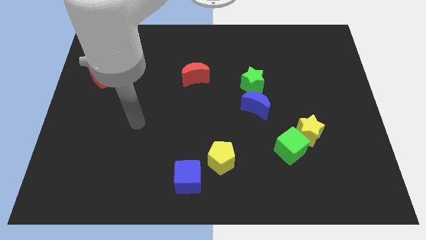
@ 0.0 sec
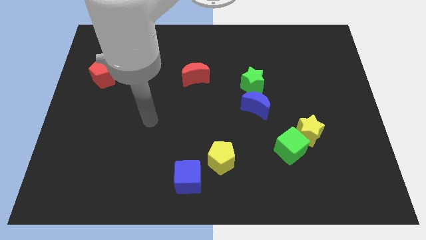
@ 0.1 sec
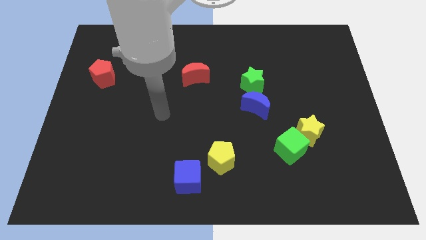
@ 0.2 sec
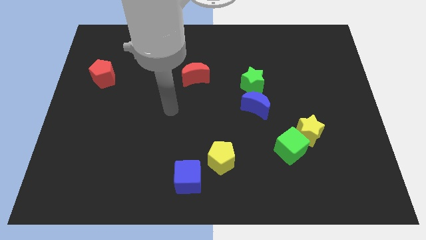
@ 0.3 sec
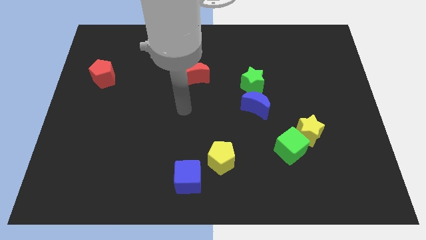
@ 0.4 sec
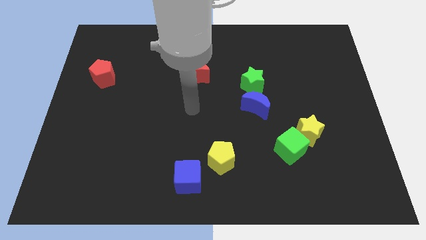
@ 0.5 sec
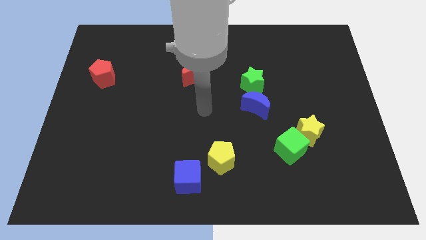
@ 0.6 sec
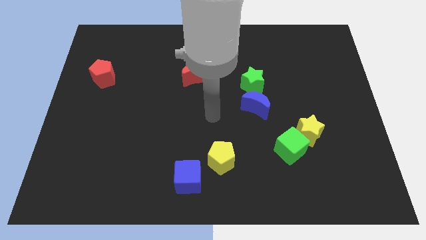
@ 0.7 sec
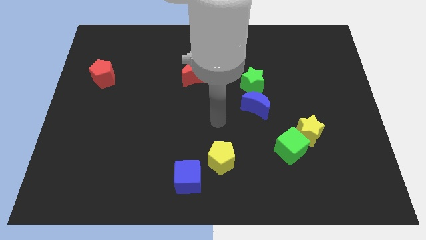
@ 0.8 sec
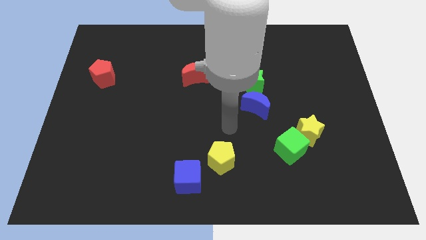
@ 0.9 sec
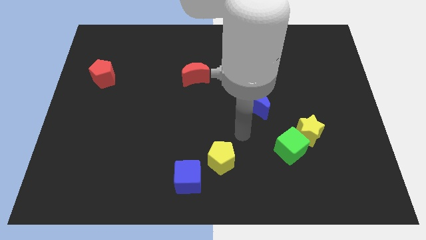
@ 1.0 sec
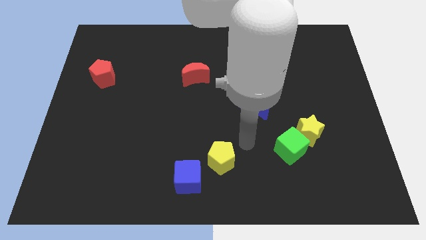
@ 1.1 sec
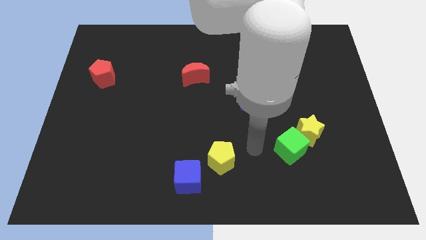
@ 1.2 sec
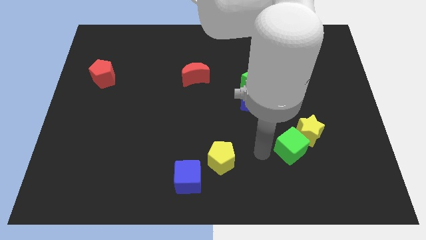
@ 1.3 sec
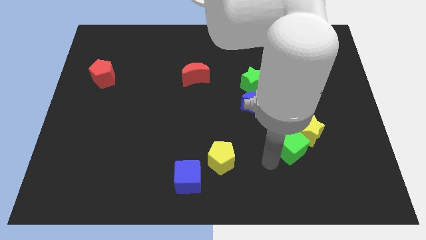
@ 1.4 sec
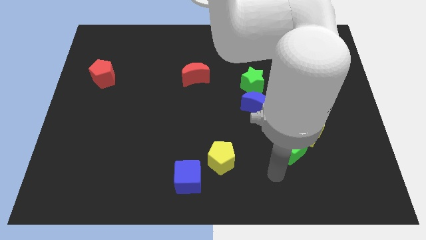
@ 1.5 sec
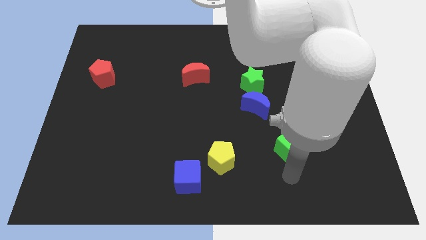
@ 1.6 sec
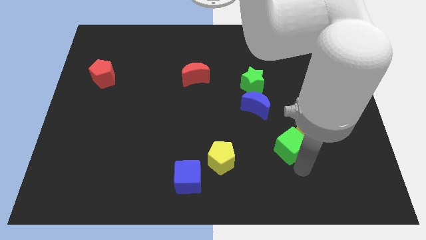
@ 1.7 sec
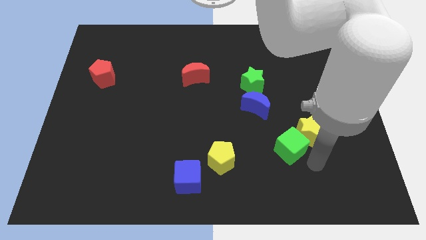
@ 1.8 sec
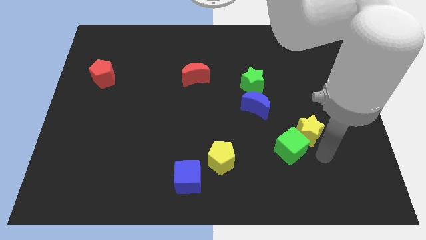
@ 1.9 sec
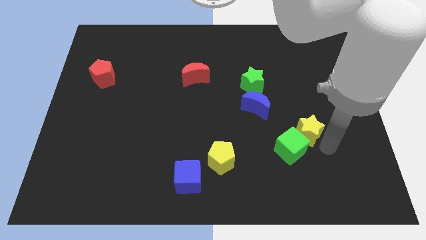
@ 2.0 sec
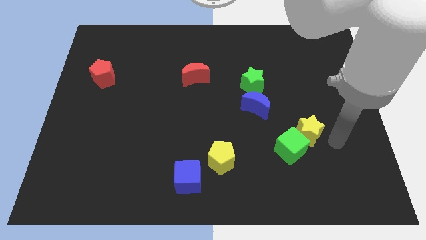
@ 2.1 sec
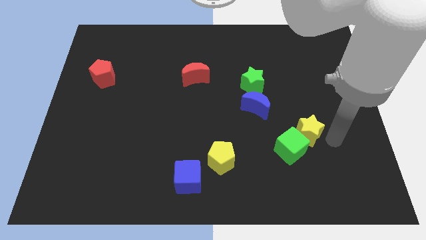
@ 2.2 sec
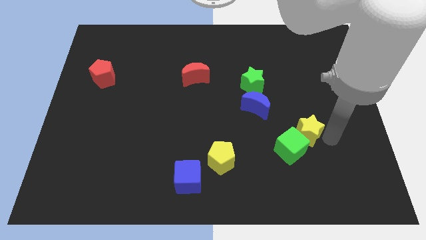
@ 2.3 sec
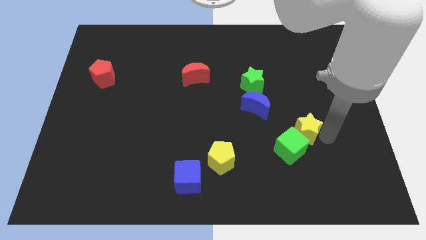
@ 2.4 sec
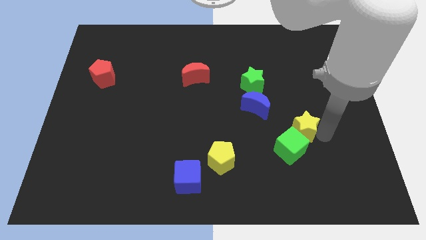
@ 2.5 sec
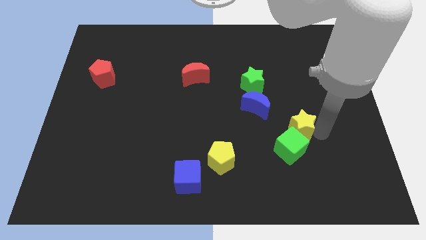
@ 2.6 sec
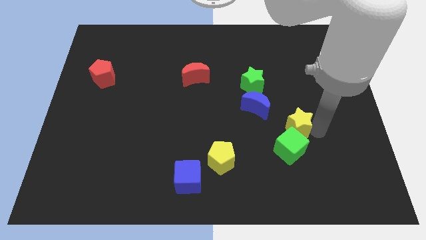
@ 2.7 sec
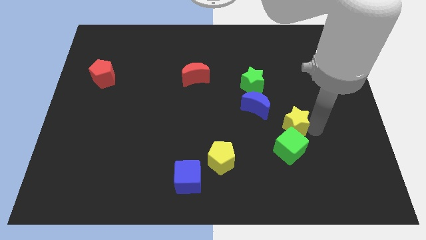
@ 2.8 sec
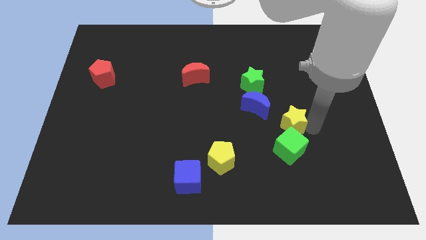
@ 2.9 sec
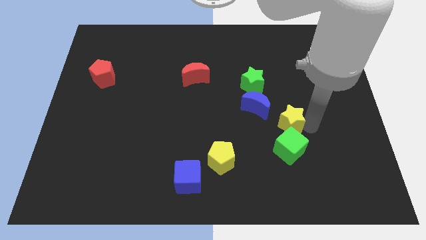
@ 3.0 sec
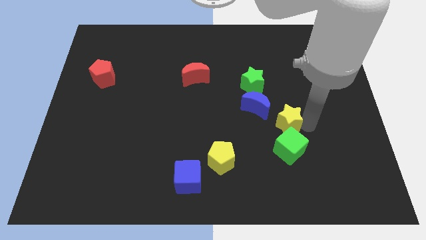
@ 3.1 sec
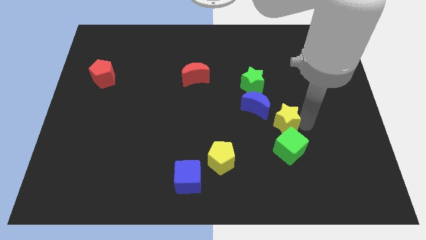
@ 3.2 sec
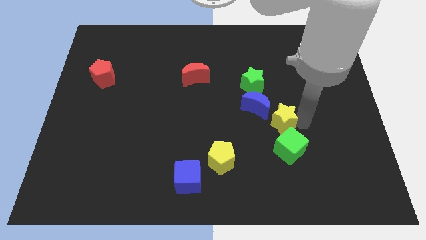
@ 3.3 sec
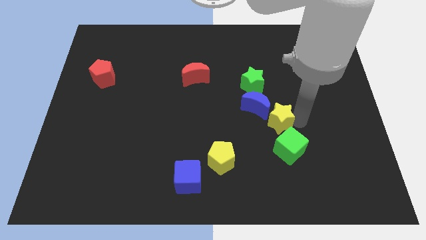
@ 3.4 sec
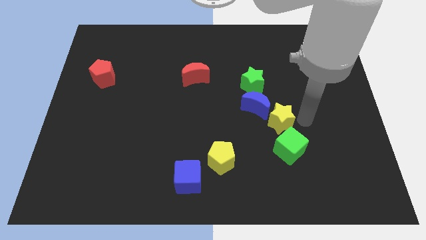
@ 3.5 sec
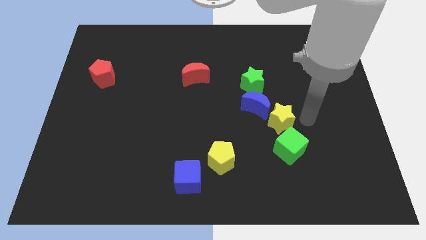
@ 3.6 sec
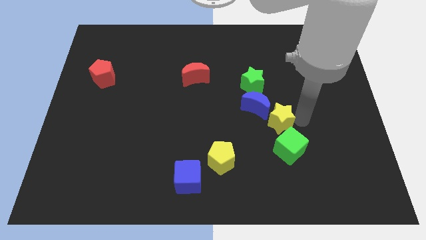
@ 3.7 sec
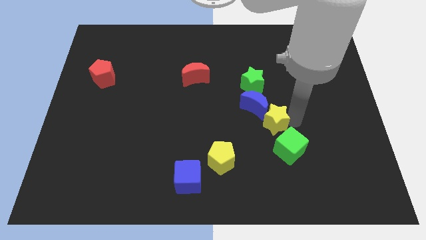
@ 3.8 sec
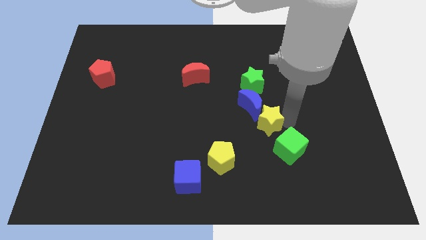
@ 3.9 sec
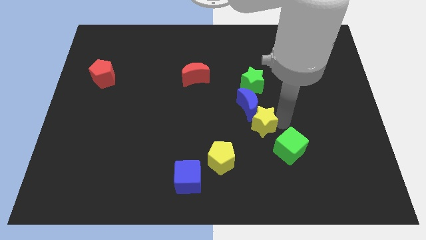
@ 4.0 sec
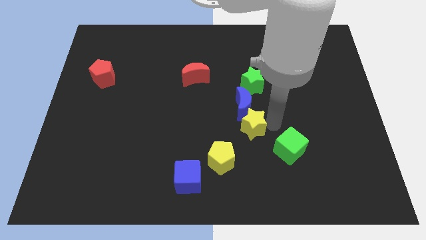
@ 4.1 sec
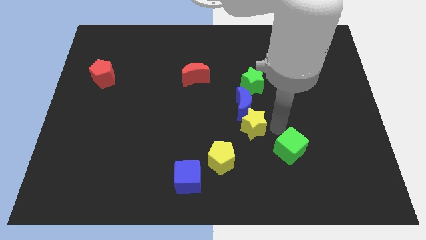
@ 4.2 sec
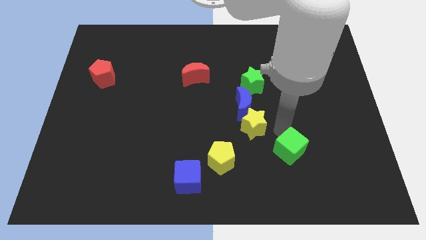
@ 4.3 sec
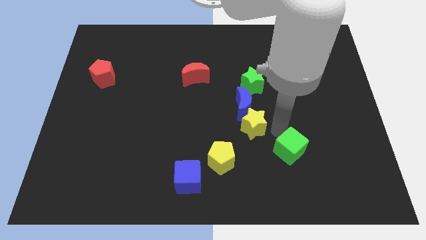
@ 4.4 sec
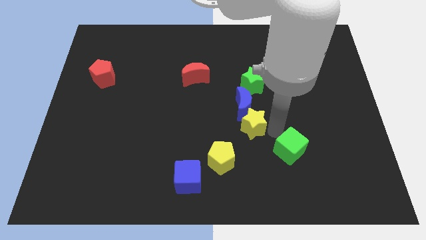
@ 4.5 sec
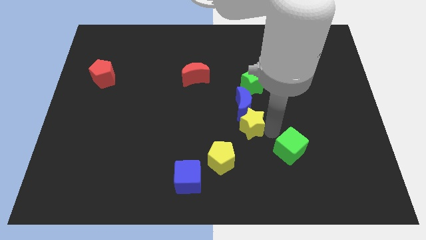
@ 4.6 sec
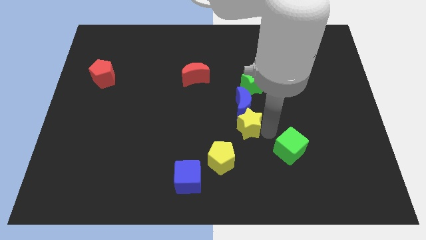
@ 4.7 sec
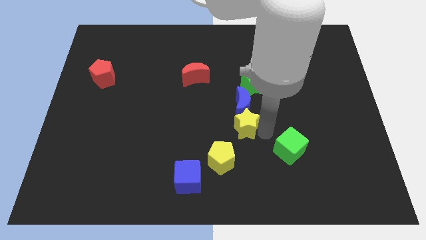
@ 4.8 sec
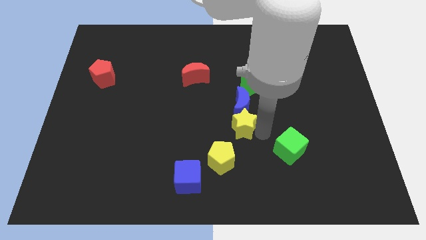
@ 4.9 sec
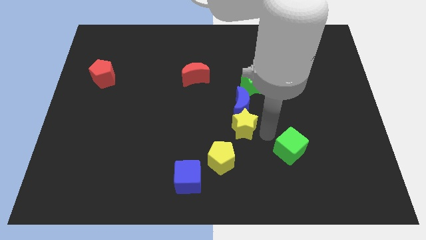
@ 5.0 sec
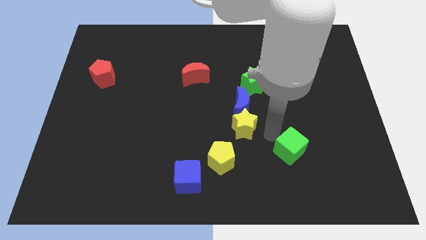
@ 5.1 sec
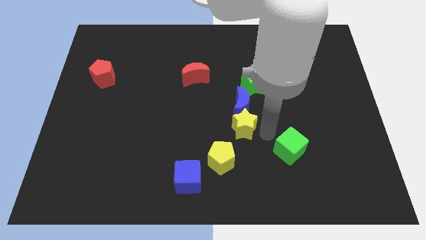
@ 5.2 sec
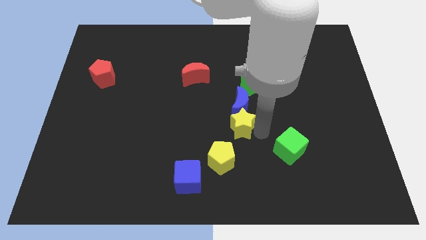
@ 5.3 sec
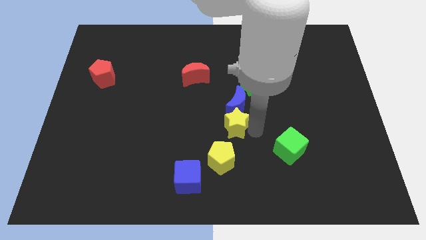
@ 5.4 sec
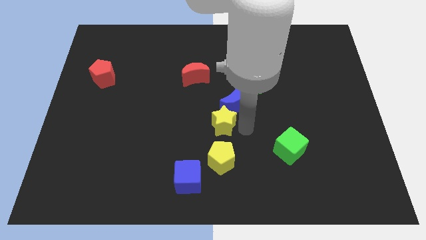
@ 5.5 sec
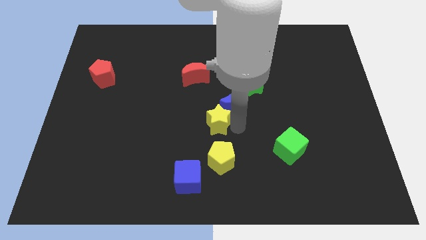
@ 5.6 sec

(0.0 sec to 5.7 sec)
push the yellow star left

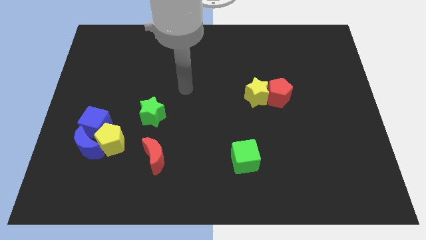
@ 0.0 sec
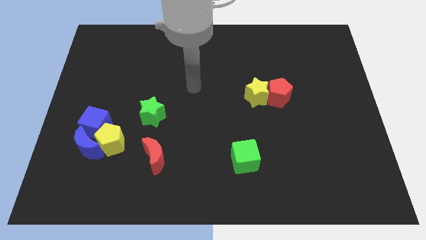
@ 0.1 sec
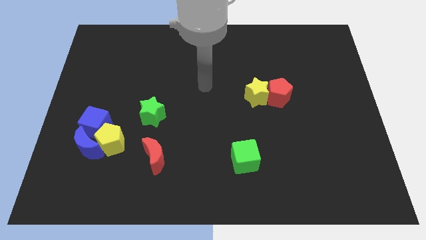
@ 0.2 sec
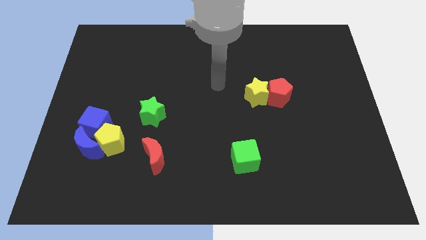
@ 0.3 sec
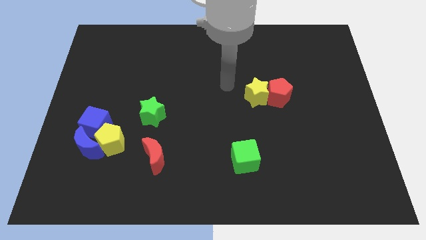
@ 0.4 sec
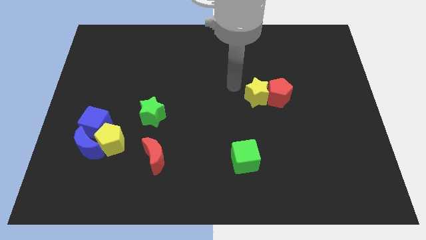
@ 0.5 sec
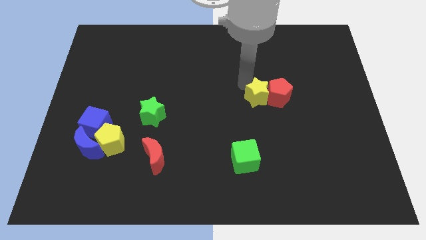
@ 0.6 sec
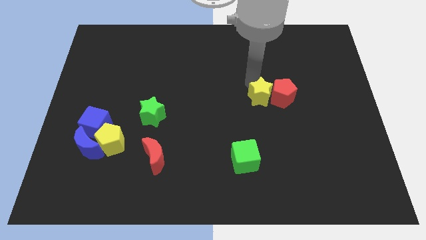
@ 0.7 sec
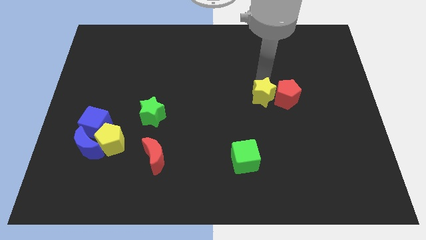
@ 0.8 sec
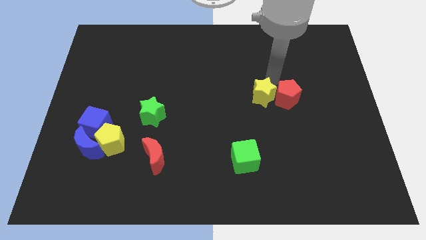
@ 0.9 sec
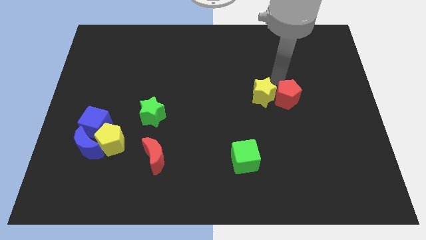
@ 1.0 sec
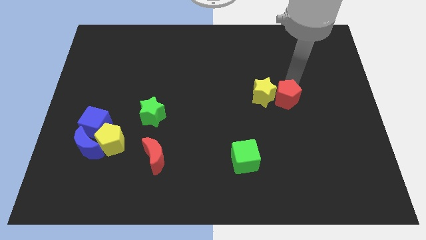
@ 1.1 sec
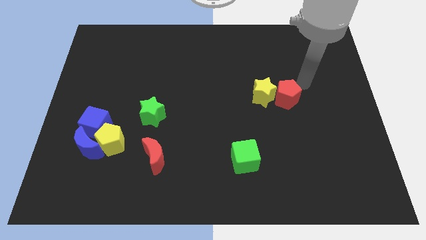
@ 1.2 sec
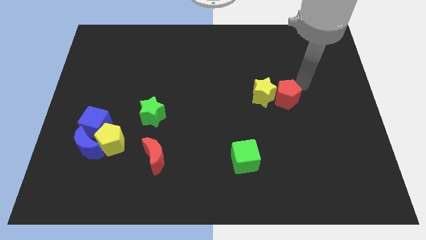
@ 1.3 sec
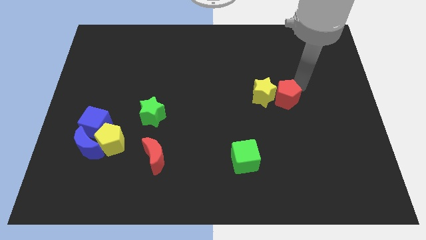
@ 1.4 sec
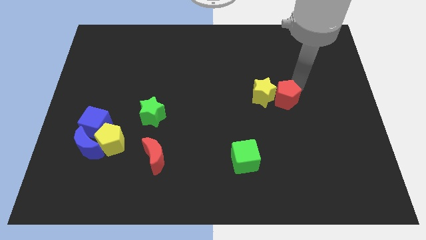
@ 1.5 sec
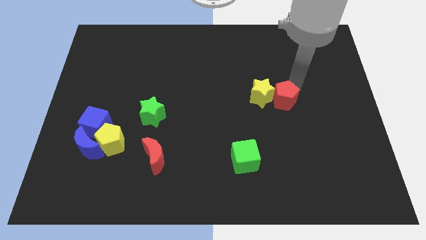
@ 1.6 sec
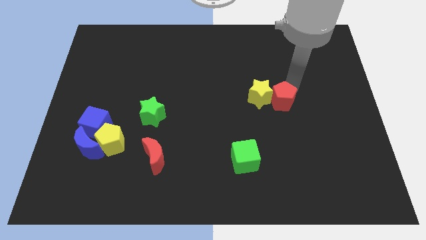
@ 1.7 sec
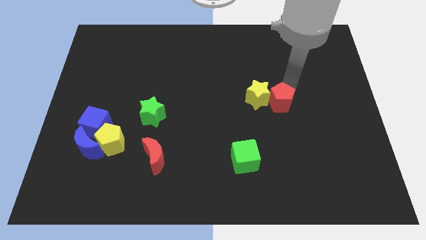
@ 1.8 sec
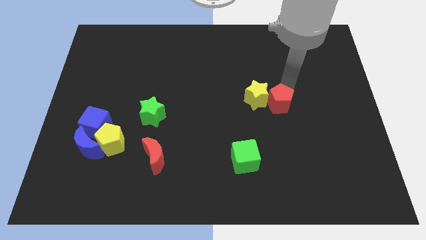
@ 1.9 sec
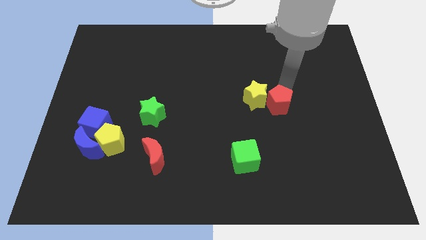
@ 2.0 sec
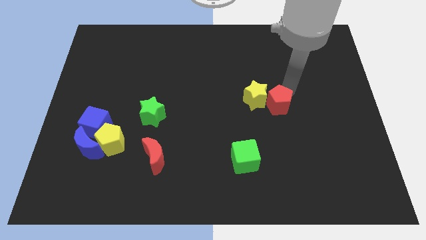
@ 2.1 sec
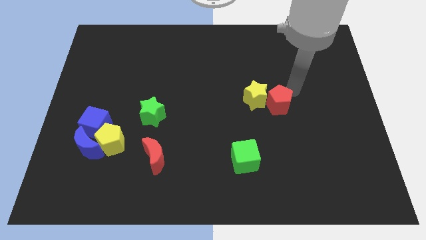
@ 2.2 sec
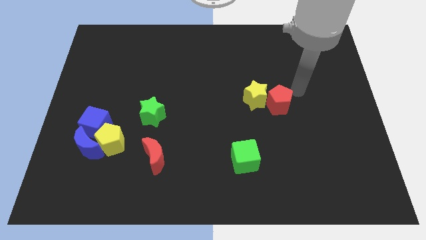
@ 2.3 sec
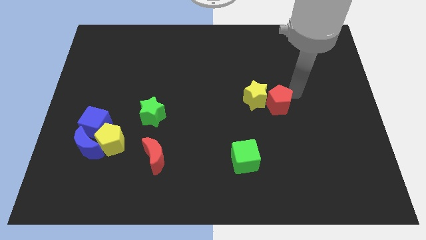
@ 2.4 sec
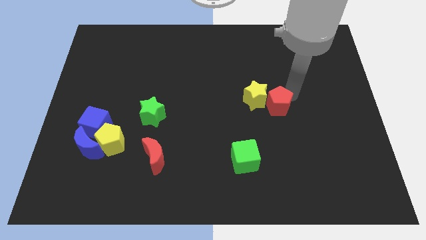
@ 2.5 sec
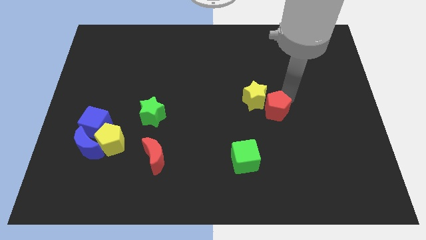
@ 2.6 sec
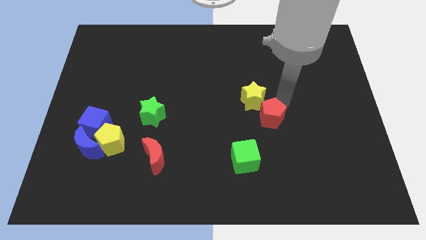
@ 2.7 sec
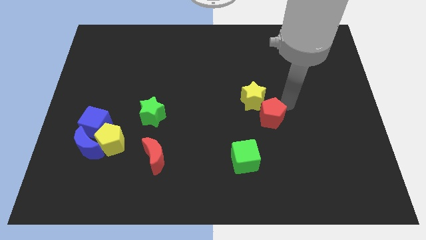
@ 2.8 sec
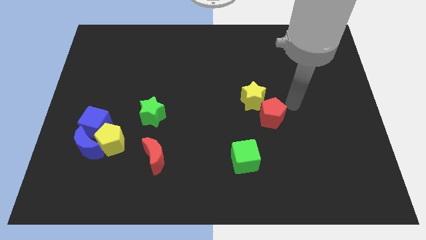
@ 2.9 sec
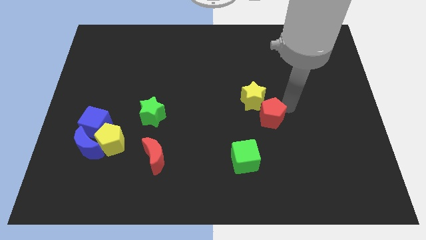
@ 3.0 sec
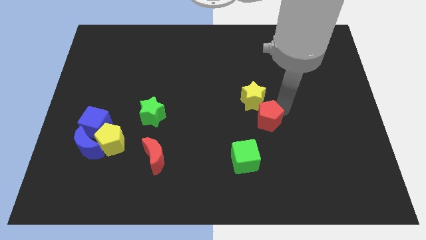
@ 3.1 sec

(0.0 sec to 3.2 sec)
move the red pentagon somewhat downwards and to the left
